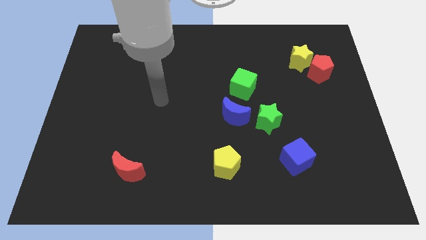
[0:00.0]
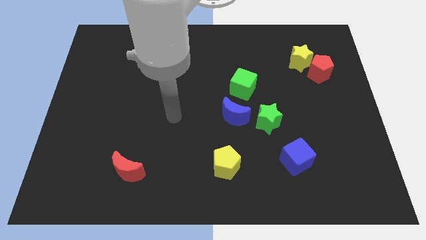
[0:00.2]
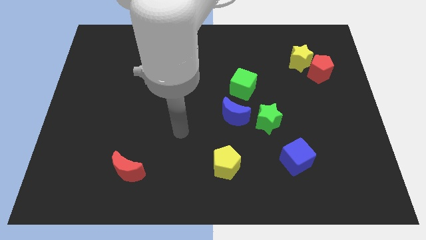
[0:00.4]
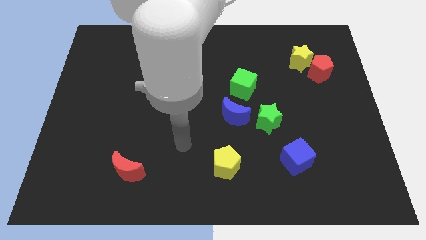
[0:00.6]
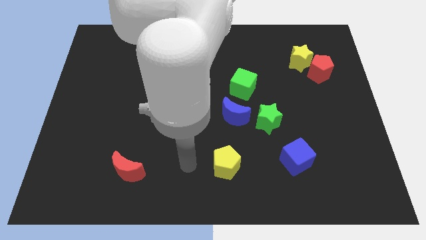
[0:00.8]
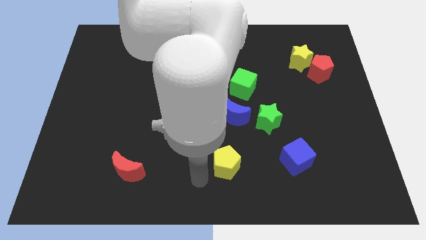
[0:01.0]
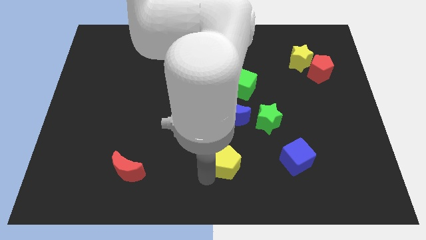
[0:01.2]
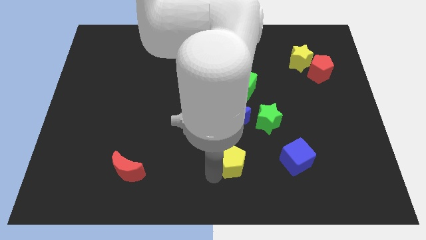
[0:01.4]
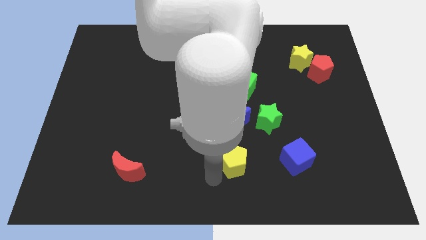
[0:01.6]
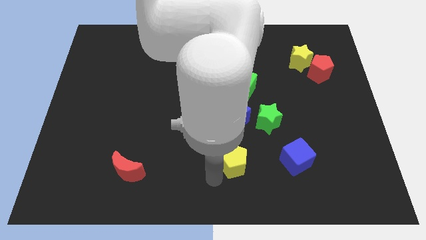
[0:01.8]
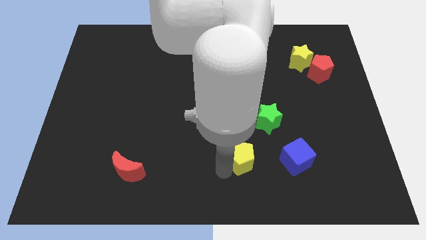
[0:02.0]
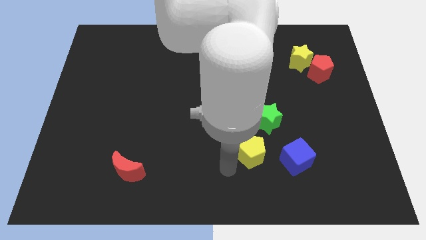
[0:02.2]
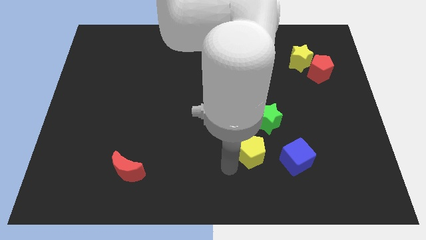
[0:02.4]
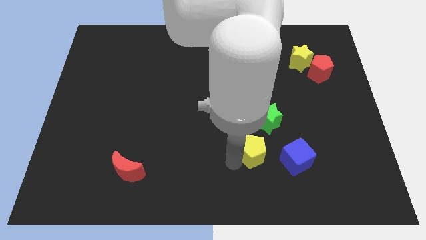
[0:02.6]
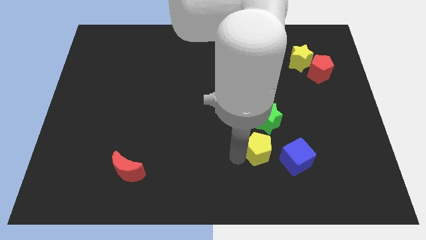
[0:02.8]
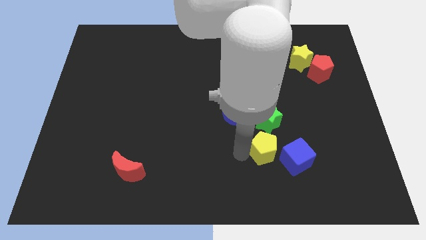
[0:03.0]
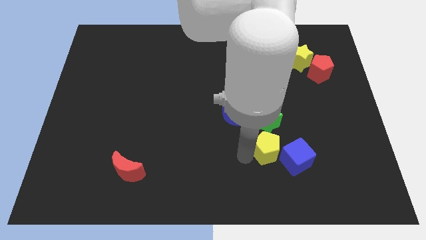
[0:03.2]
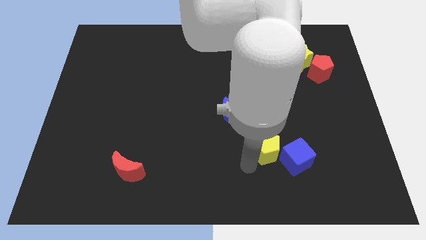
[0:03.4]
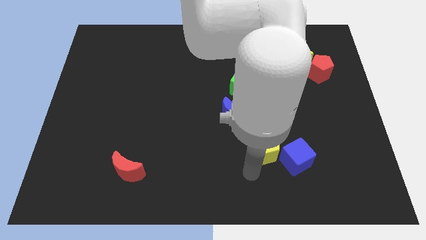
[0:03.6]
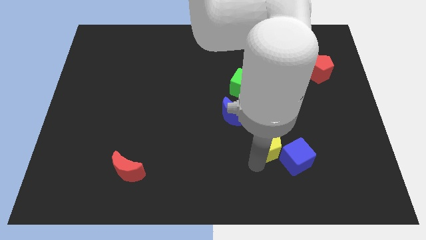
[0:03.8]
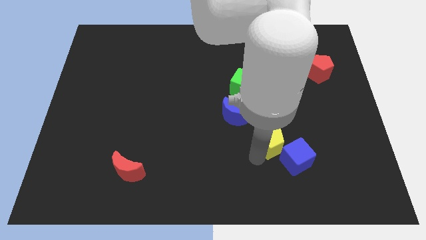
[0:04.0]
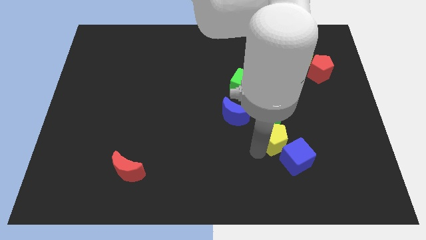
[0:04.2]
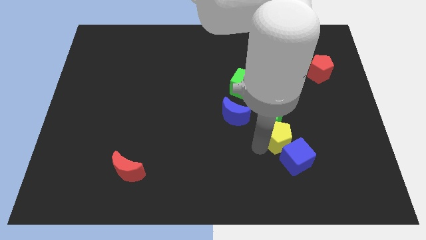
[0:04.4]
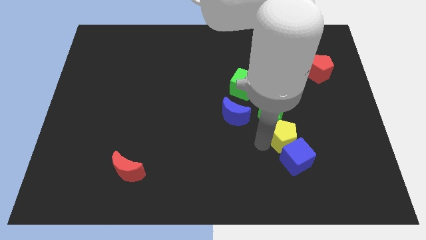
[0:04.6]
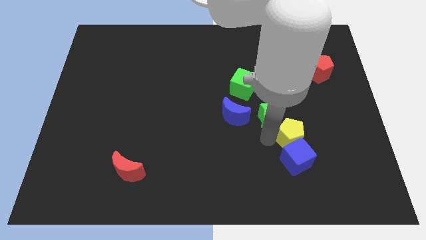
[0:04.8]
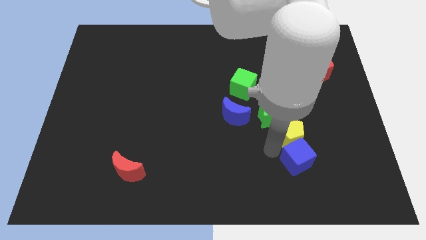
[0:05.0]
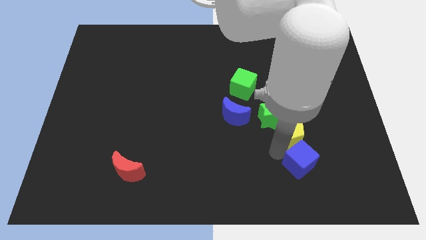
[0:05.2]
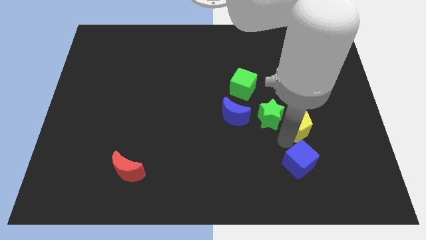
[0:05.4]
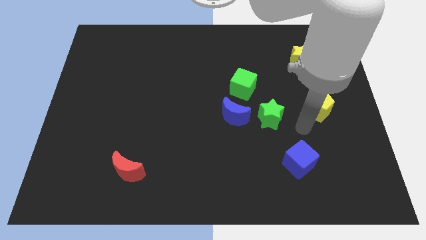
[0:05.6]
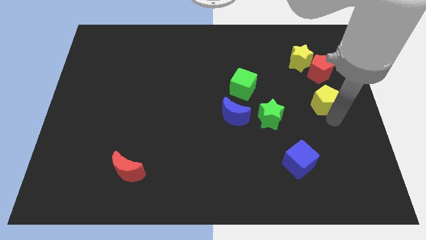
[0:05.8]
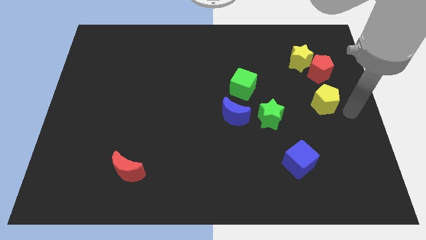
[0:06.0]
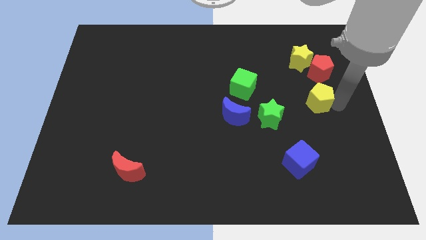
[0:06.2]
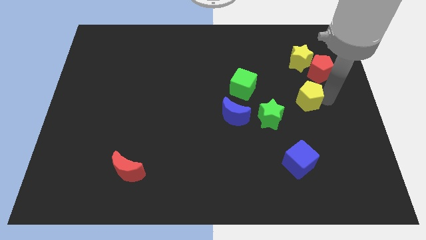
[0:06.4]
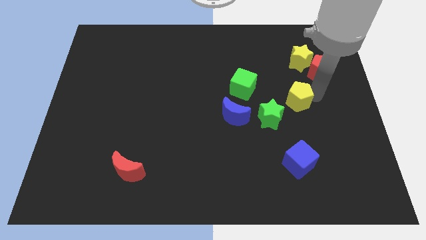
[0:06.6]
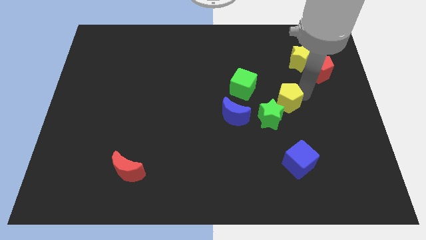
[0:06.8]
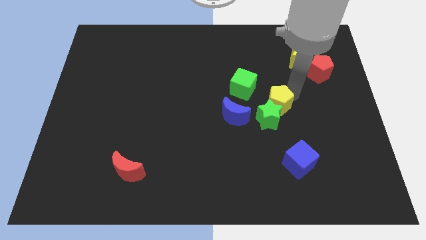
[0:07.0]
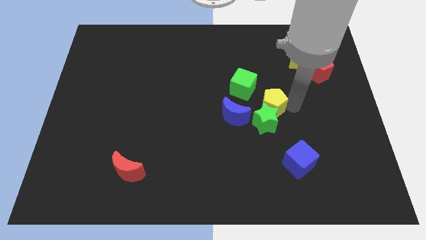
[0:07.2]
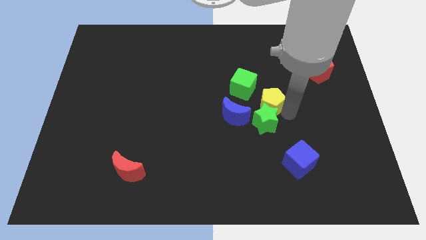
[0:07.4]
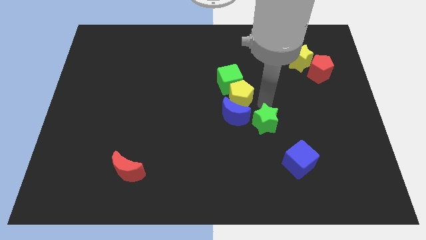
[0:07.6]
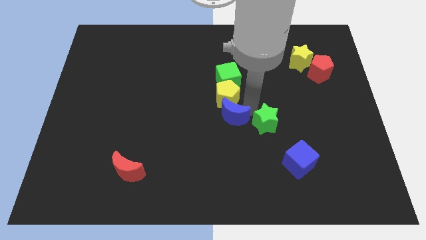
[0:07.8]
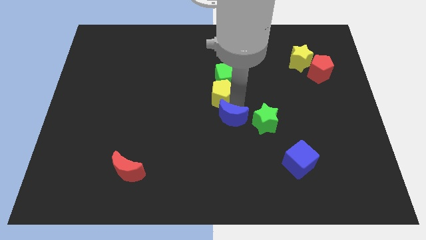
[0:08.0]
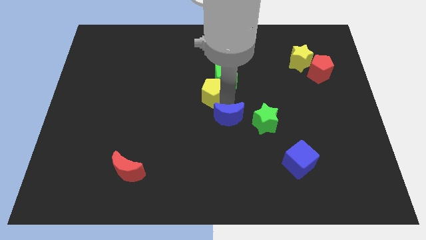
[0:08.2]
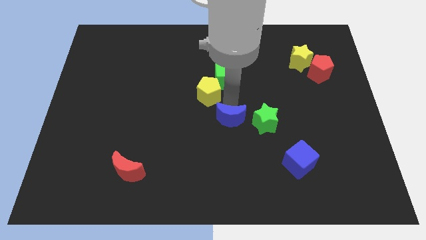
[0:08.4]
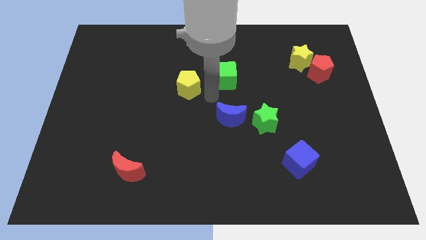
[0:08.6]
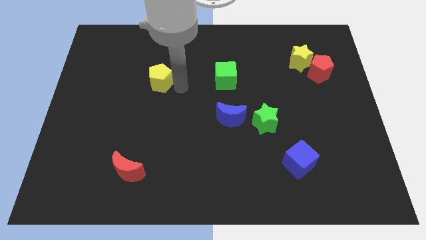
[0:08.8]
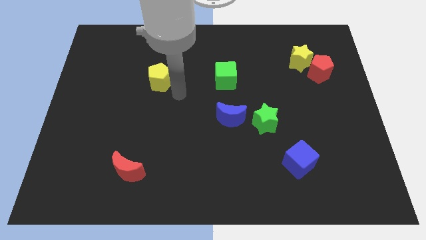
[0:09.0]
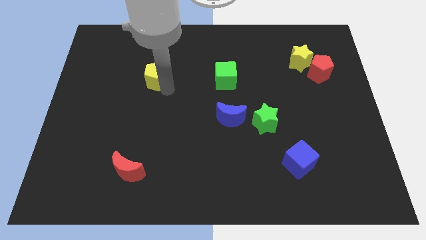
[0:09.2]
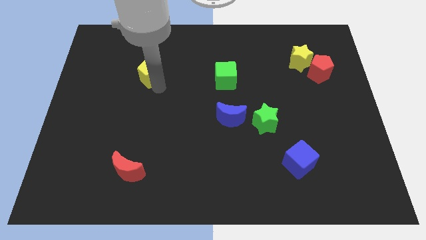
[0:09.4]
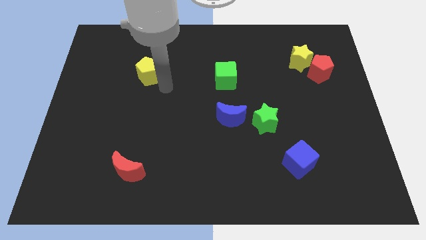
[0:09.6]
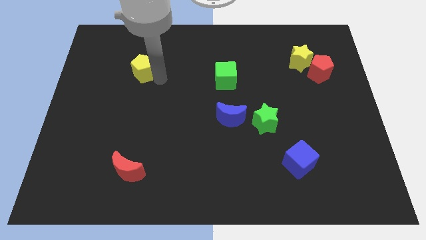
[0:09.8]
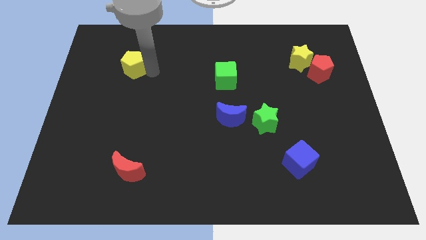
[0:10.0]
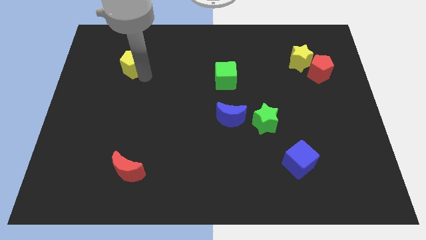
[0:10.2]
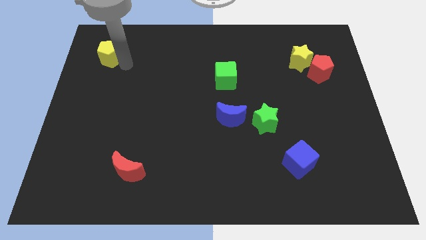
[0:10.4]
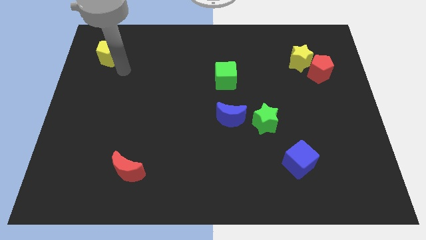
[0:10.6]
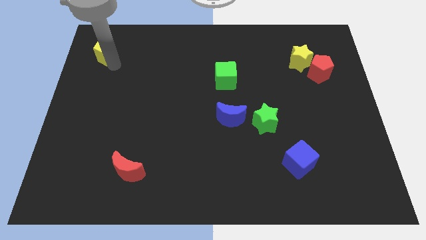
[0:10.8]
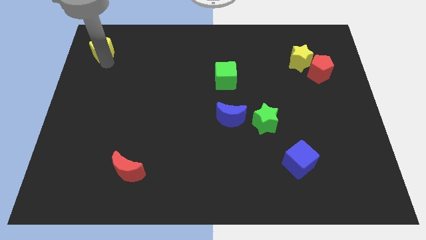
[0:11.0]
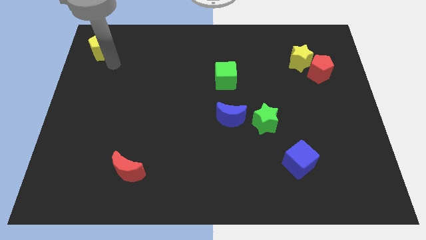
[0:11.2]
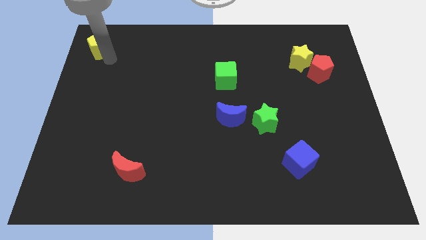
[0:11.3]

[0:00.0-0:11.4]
slide the yellow pentagon to the top left of the board

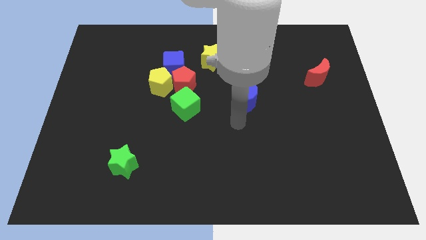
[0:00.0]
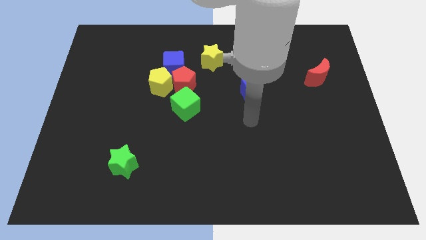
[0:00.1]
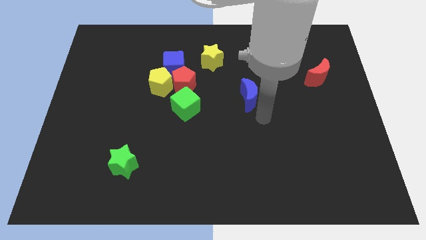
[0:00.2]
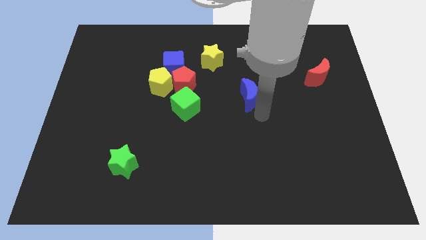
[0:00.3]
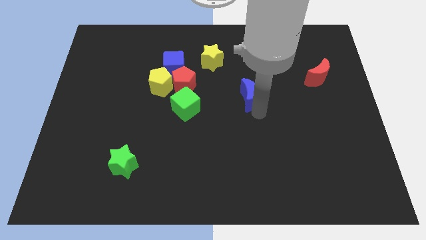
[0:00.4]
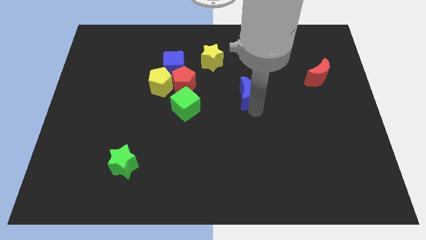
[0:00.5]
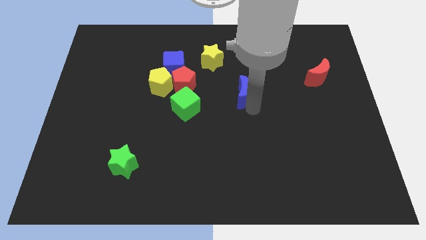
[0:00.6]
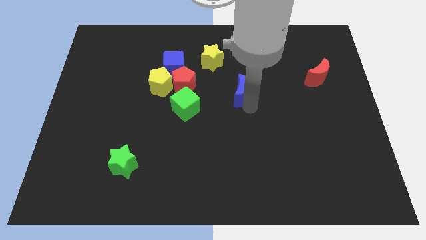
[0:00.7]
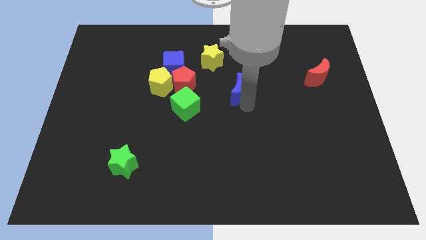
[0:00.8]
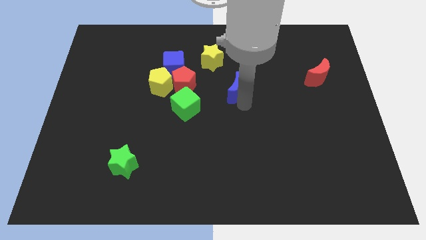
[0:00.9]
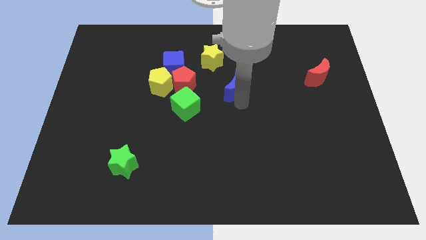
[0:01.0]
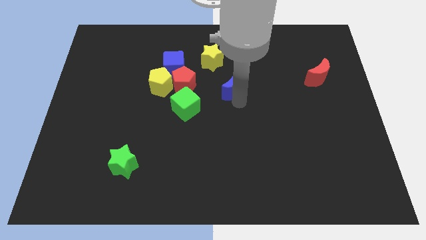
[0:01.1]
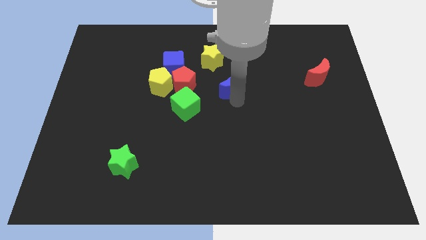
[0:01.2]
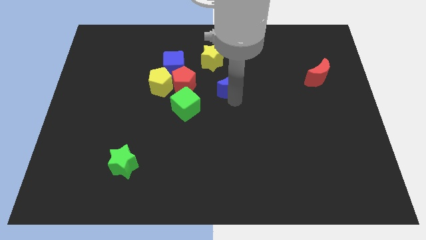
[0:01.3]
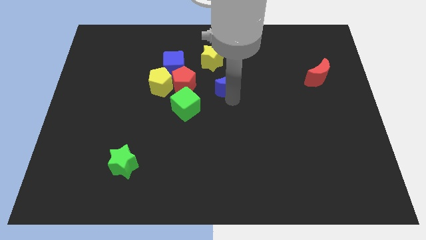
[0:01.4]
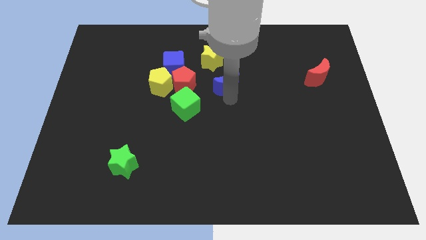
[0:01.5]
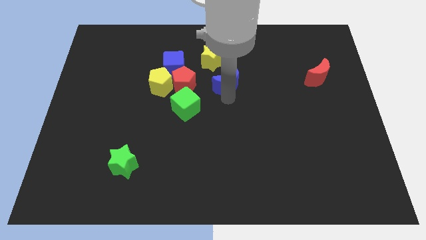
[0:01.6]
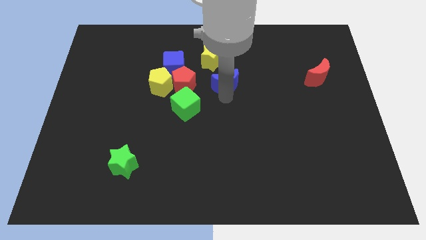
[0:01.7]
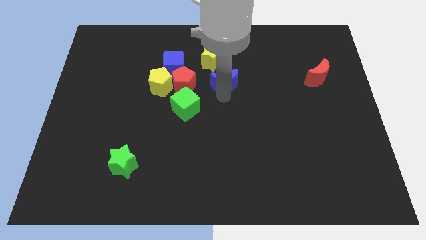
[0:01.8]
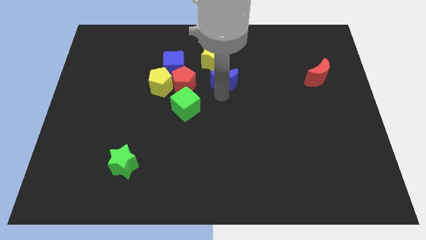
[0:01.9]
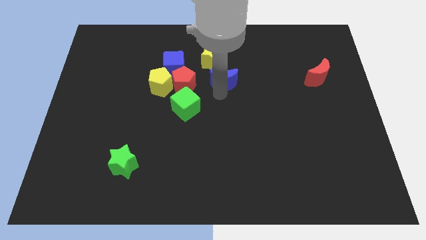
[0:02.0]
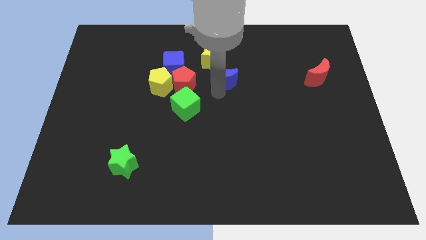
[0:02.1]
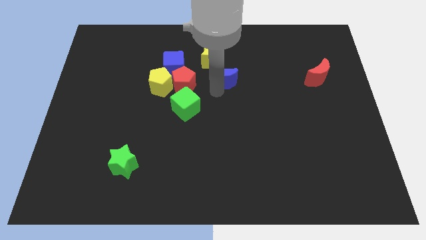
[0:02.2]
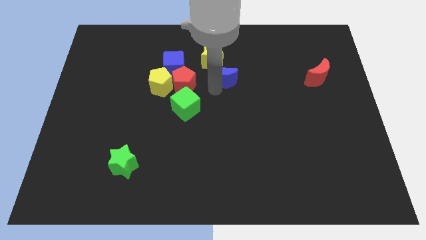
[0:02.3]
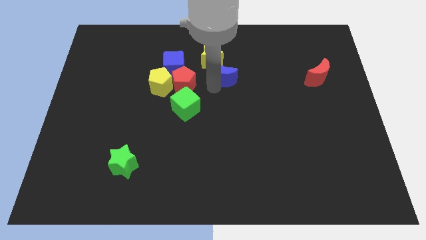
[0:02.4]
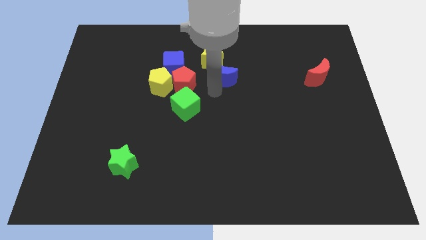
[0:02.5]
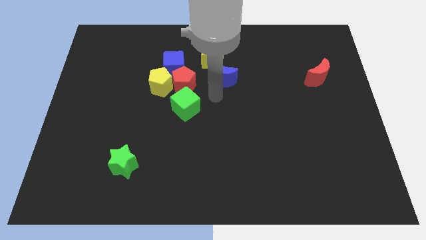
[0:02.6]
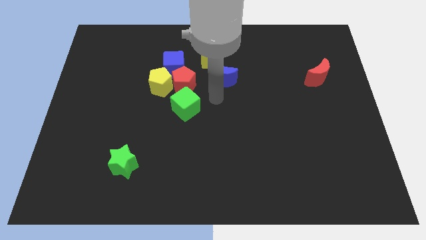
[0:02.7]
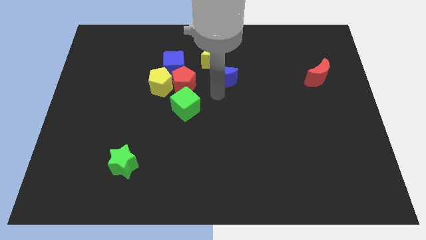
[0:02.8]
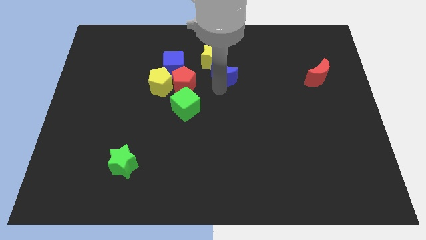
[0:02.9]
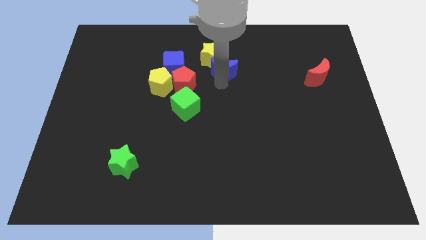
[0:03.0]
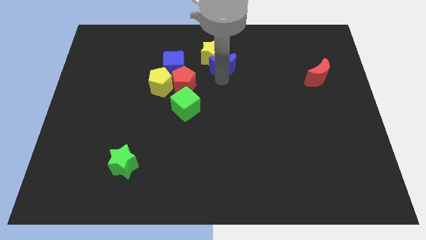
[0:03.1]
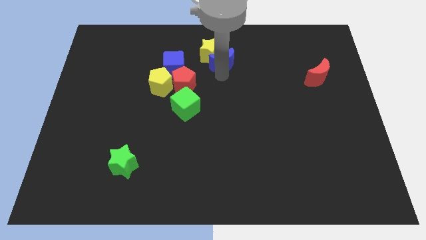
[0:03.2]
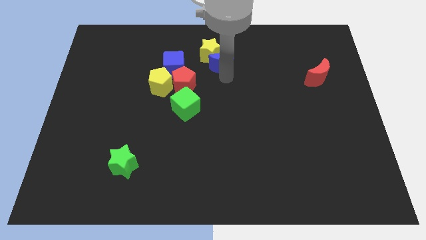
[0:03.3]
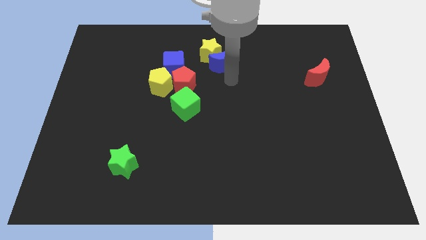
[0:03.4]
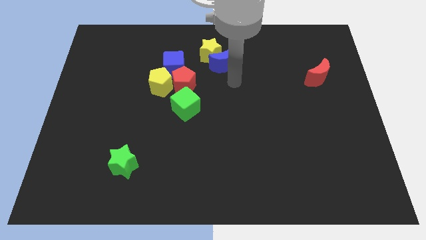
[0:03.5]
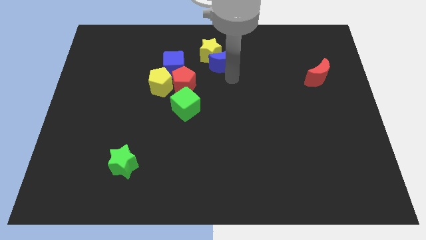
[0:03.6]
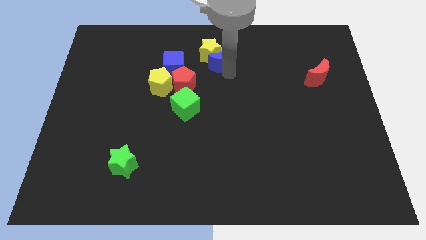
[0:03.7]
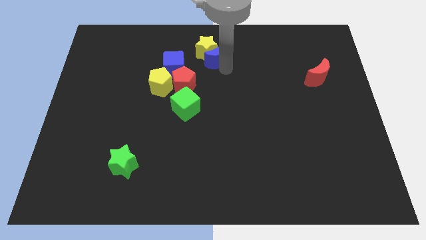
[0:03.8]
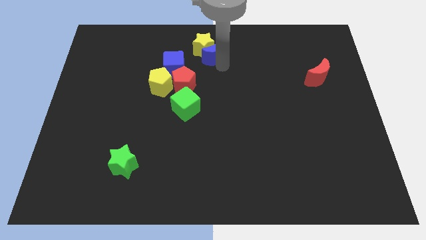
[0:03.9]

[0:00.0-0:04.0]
push the blue moon to the top side
